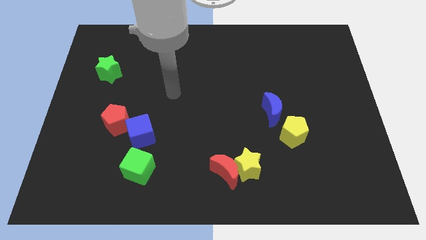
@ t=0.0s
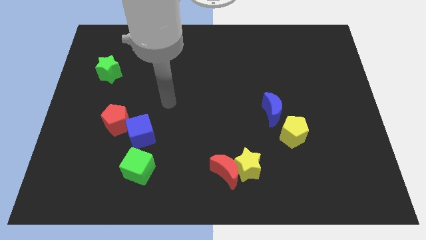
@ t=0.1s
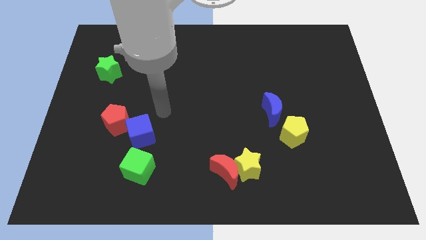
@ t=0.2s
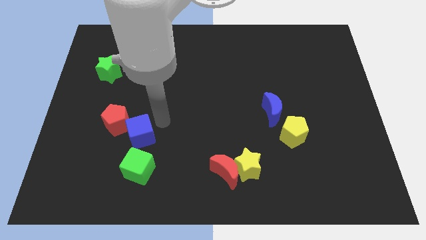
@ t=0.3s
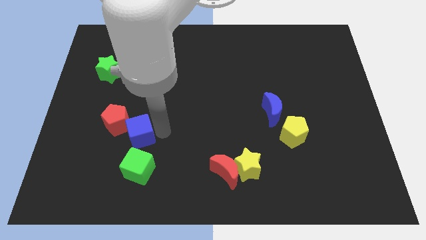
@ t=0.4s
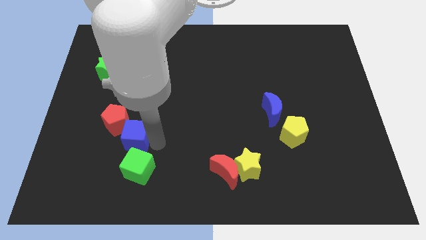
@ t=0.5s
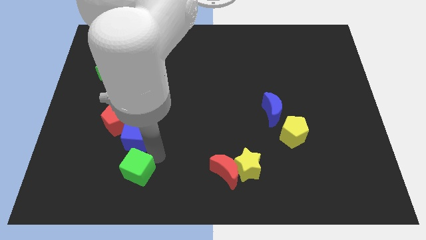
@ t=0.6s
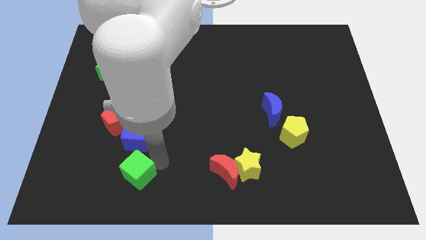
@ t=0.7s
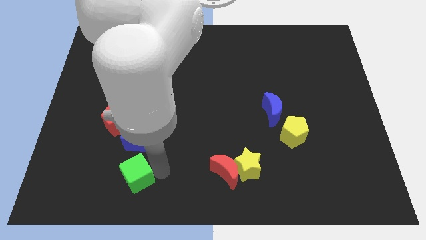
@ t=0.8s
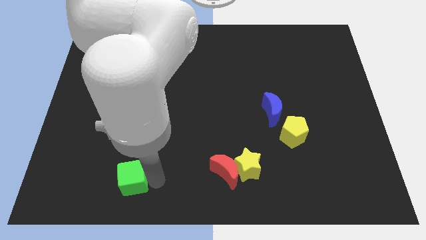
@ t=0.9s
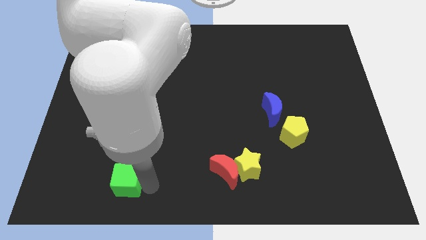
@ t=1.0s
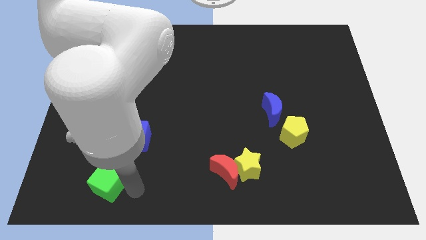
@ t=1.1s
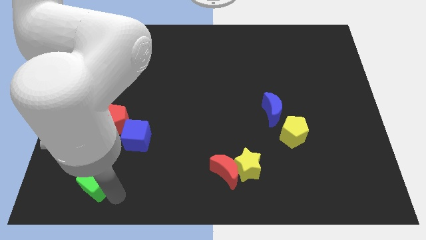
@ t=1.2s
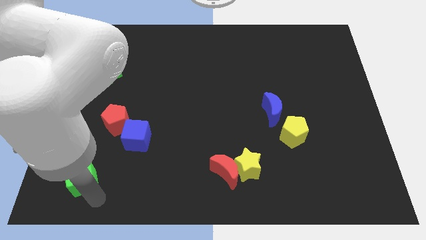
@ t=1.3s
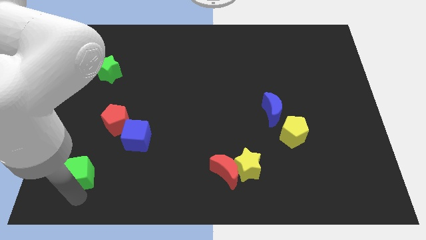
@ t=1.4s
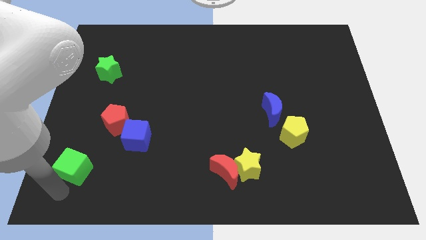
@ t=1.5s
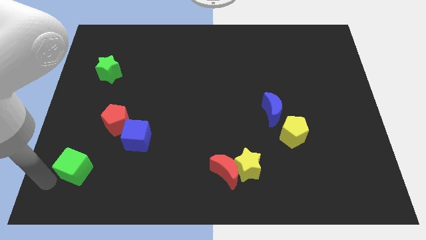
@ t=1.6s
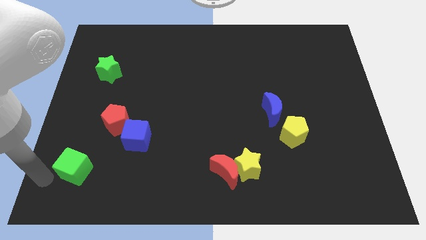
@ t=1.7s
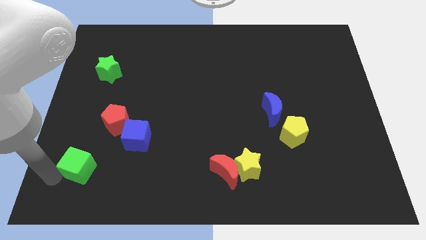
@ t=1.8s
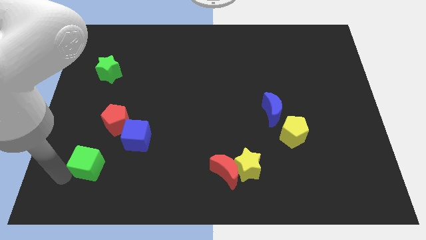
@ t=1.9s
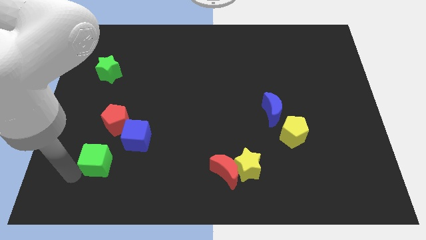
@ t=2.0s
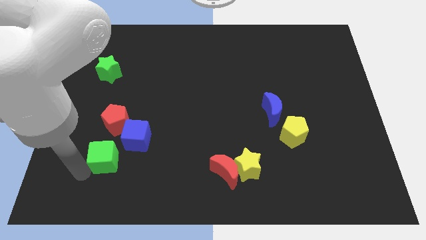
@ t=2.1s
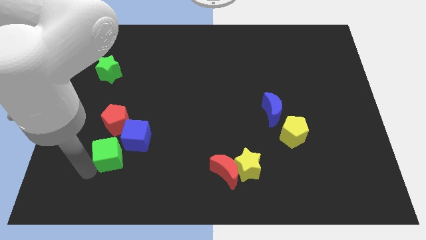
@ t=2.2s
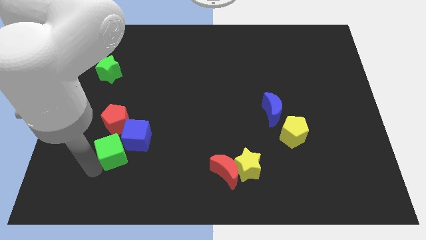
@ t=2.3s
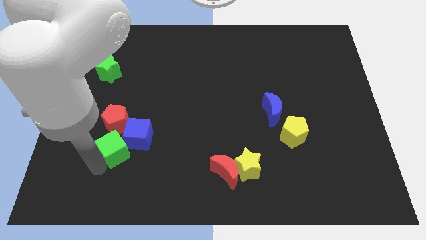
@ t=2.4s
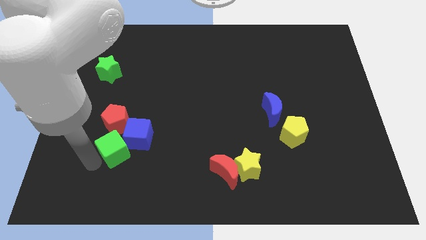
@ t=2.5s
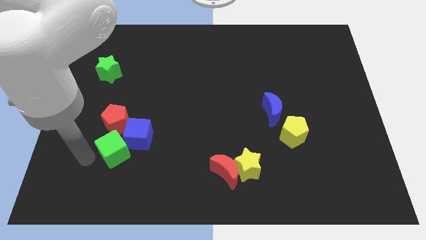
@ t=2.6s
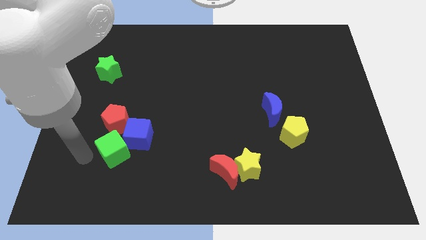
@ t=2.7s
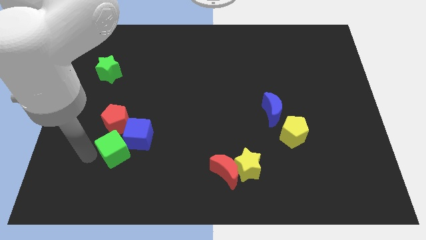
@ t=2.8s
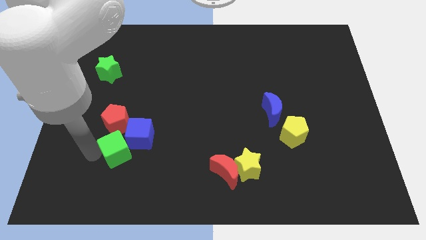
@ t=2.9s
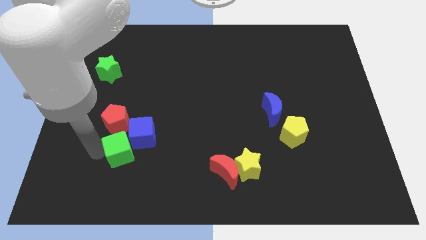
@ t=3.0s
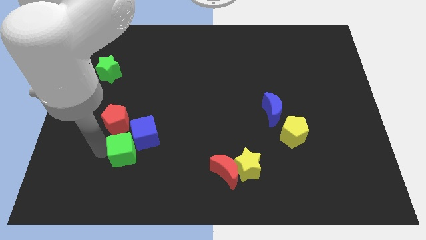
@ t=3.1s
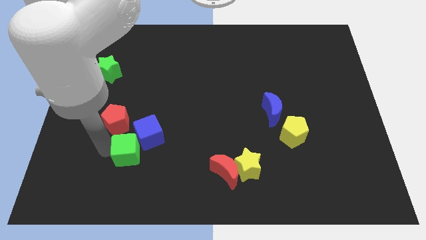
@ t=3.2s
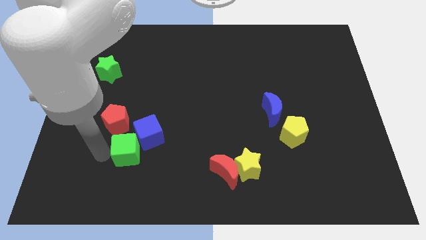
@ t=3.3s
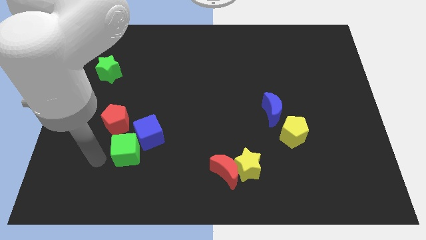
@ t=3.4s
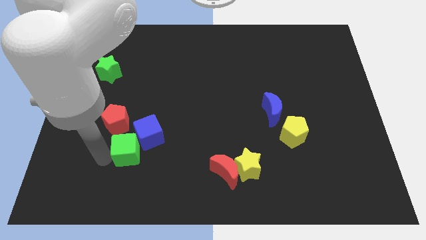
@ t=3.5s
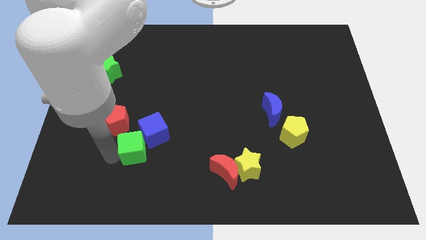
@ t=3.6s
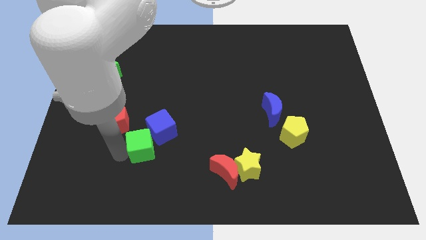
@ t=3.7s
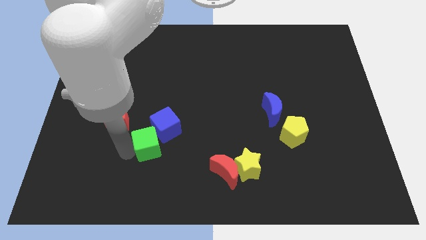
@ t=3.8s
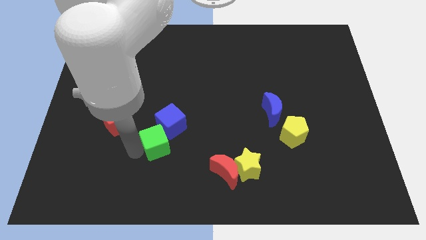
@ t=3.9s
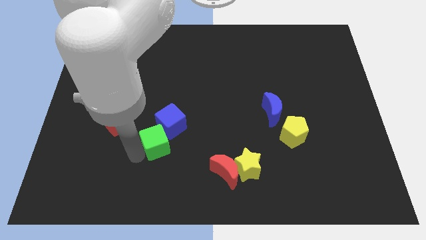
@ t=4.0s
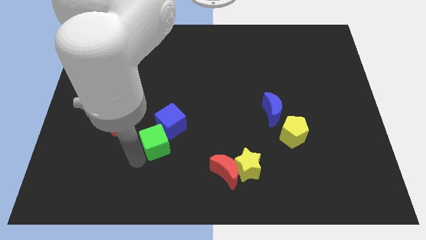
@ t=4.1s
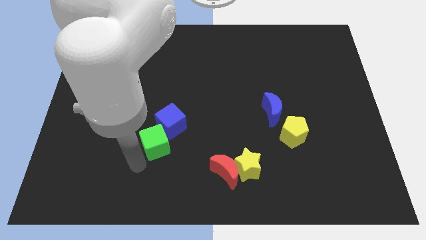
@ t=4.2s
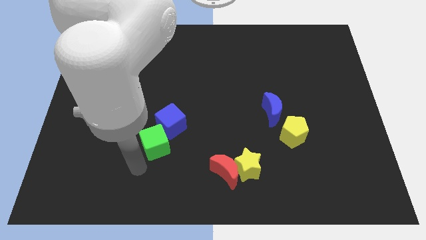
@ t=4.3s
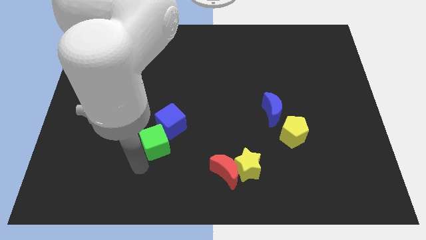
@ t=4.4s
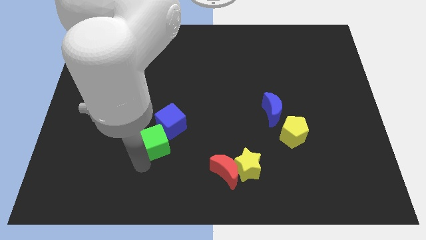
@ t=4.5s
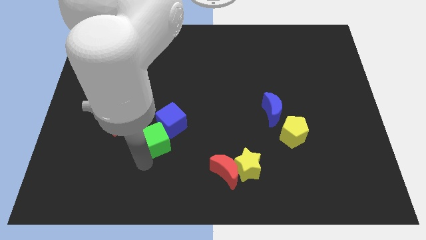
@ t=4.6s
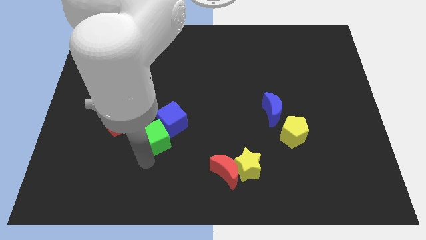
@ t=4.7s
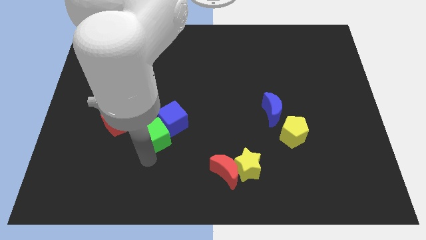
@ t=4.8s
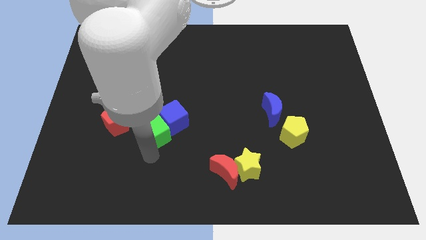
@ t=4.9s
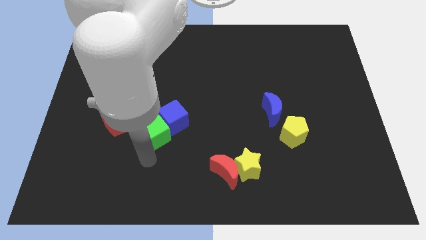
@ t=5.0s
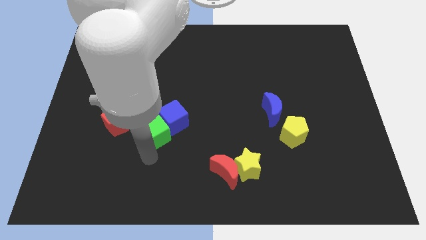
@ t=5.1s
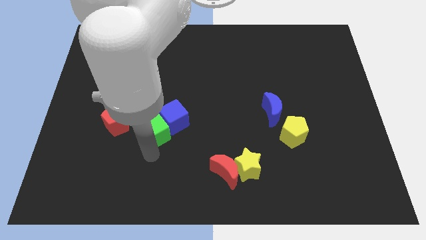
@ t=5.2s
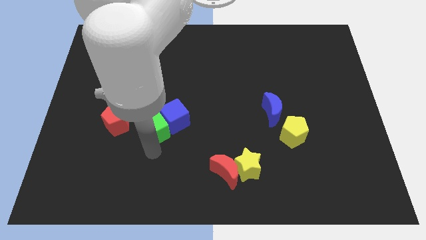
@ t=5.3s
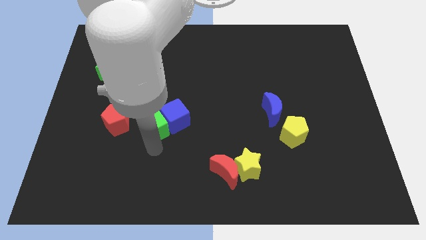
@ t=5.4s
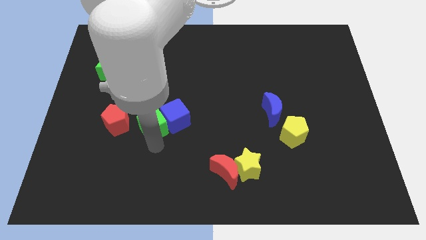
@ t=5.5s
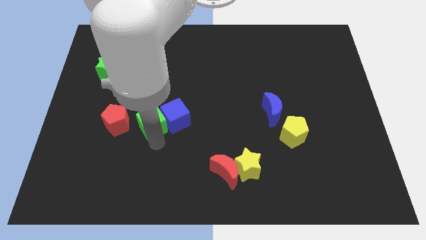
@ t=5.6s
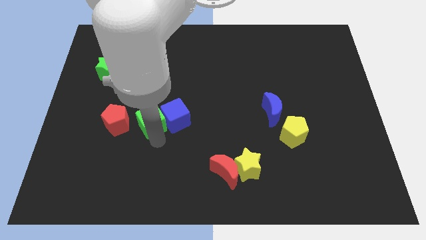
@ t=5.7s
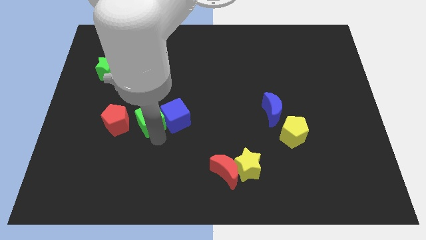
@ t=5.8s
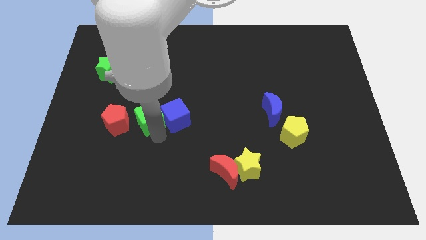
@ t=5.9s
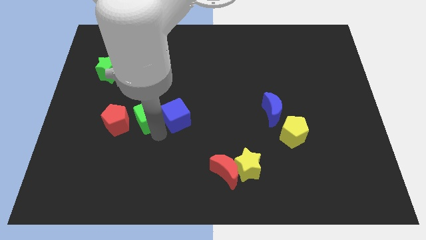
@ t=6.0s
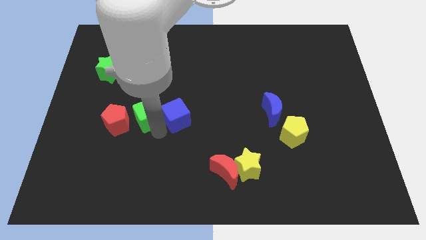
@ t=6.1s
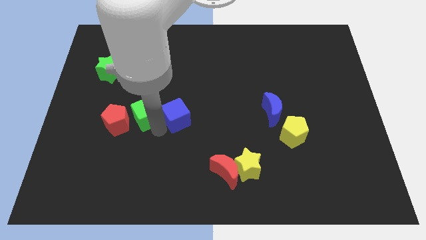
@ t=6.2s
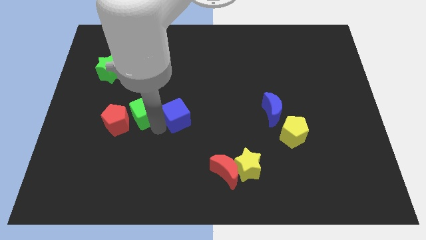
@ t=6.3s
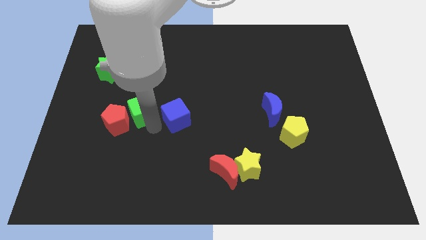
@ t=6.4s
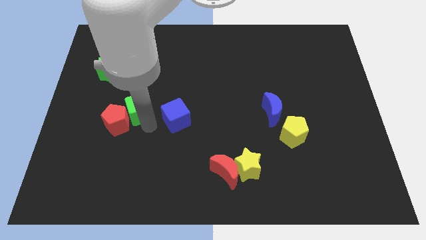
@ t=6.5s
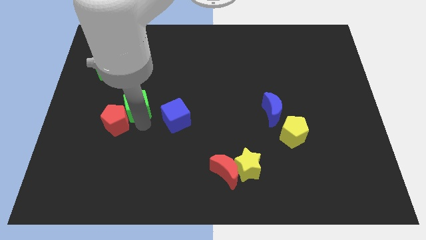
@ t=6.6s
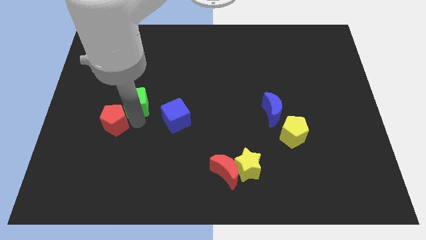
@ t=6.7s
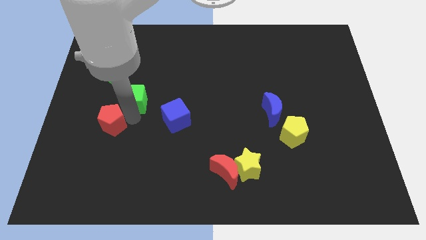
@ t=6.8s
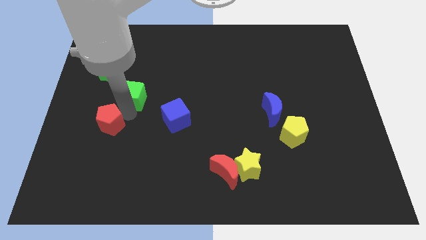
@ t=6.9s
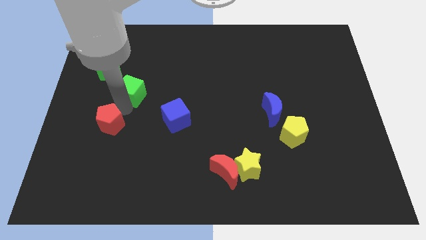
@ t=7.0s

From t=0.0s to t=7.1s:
push the green cube upwards

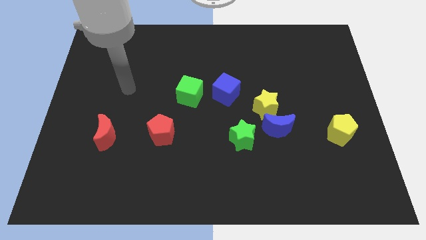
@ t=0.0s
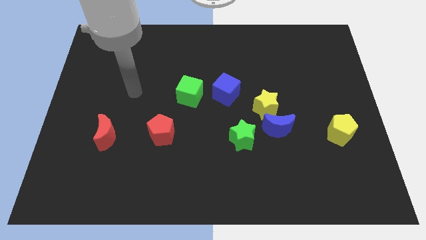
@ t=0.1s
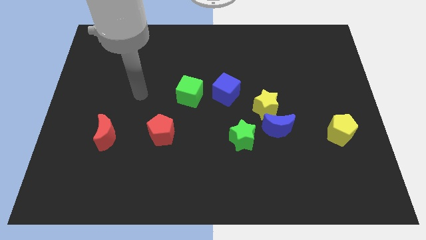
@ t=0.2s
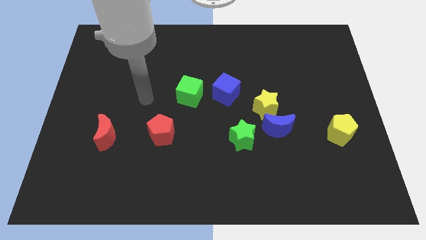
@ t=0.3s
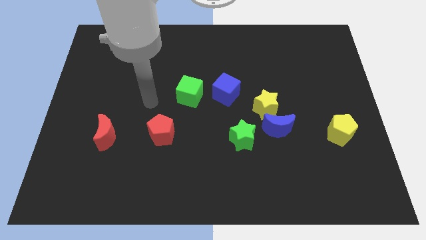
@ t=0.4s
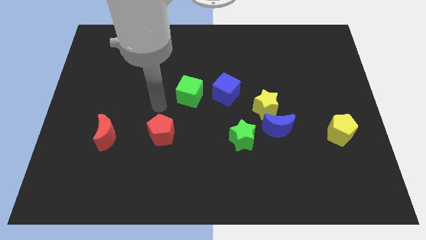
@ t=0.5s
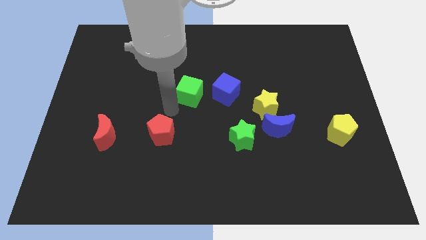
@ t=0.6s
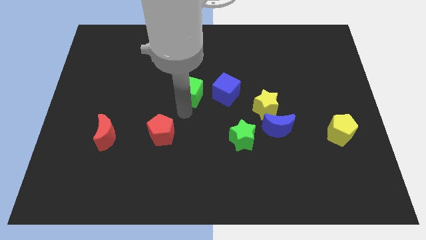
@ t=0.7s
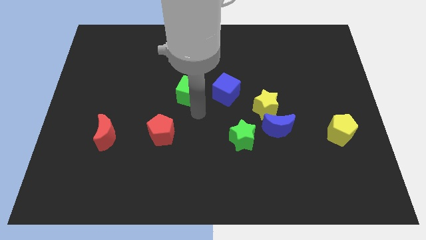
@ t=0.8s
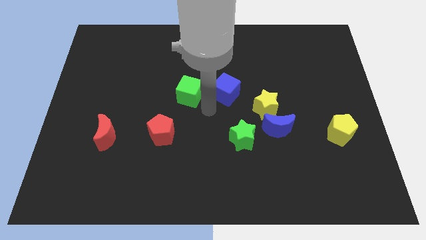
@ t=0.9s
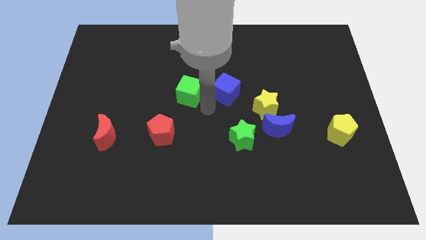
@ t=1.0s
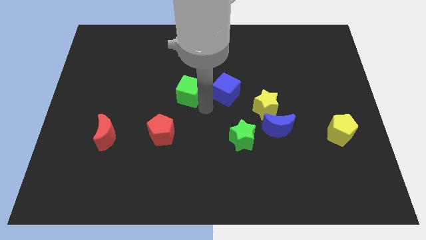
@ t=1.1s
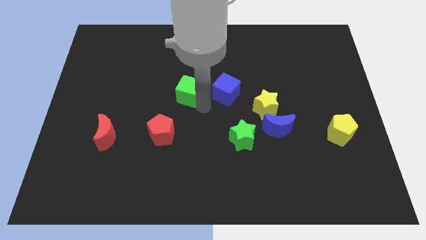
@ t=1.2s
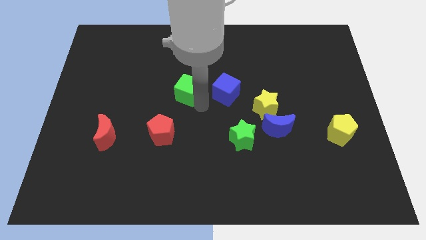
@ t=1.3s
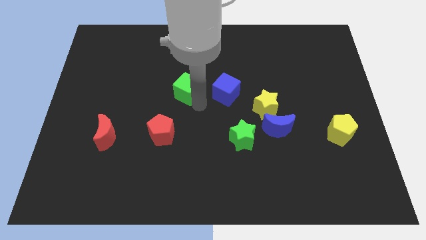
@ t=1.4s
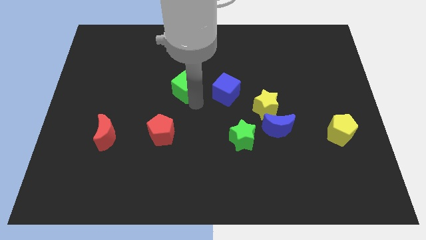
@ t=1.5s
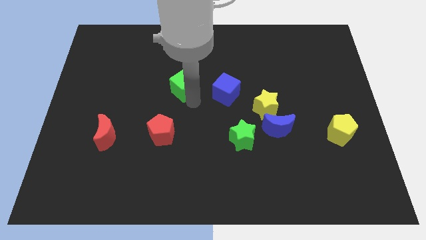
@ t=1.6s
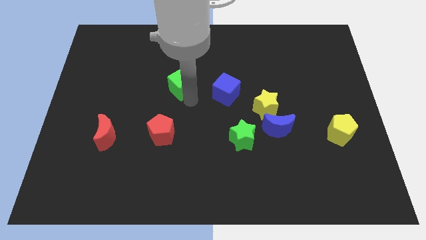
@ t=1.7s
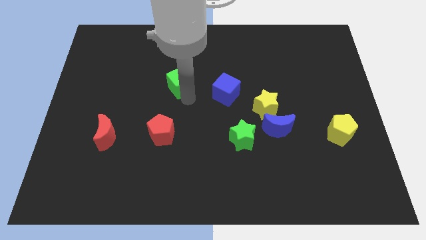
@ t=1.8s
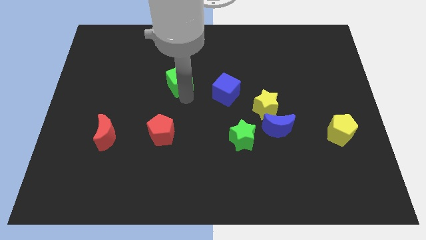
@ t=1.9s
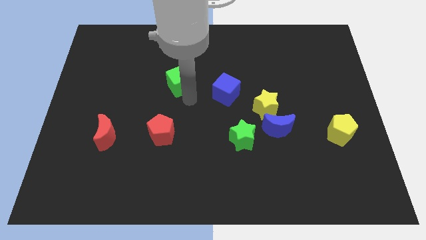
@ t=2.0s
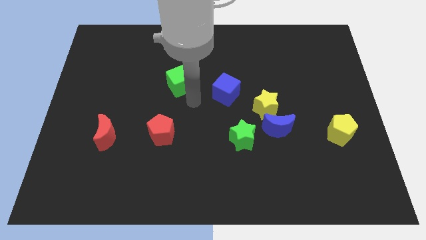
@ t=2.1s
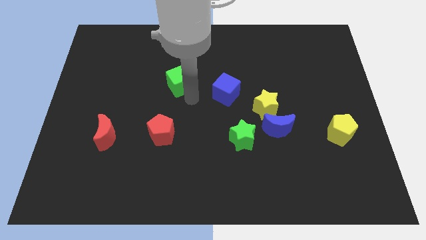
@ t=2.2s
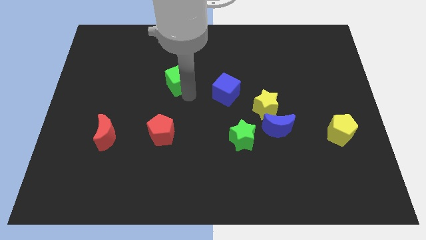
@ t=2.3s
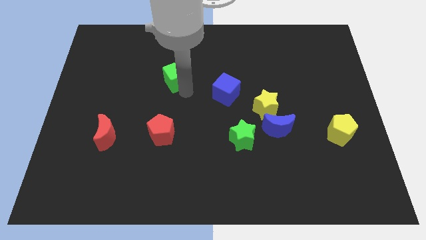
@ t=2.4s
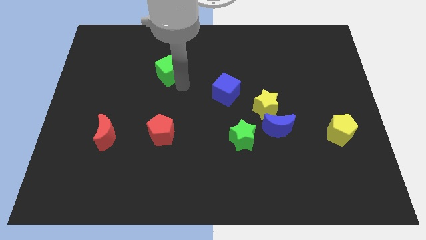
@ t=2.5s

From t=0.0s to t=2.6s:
slightly slide the green cube diagonally upwards and left
